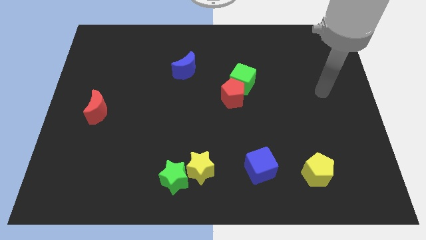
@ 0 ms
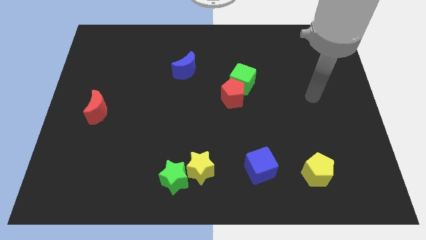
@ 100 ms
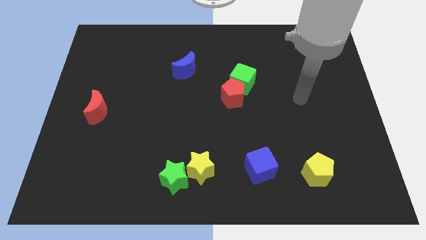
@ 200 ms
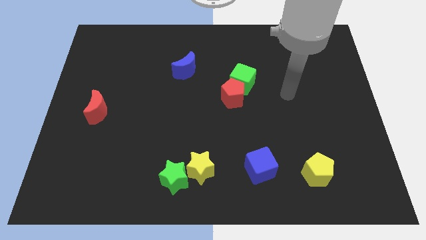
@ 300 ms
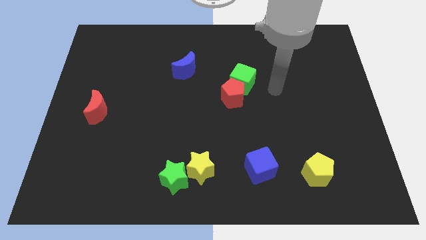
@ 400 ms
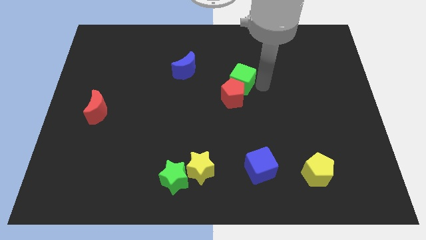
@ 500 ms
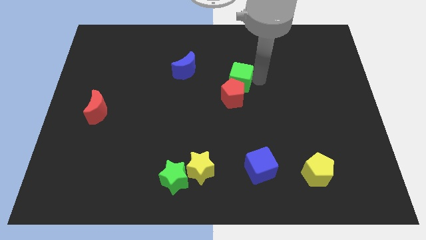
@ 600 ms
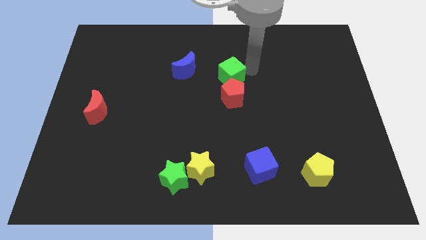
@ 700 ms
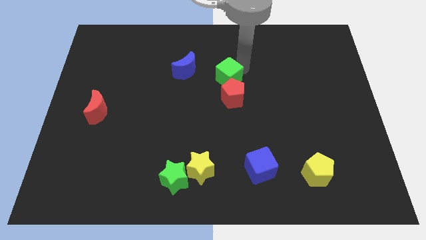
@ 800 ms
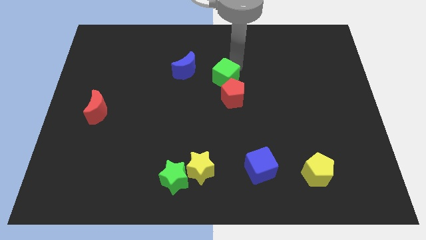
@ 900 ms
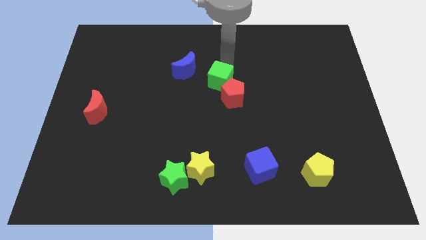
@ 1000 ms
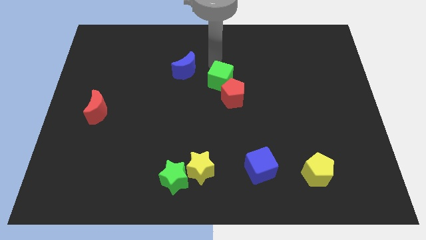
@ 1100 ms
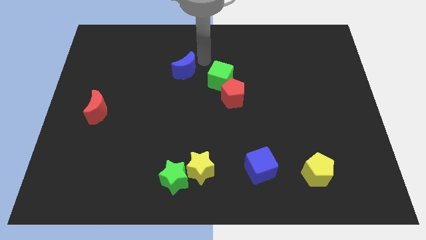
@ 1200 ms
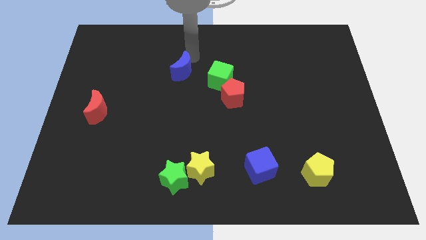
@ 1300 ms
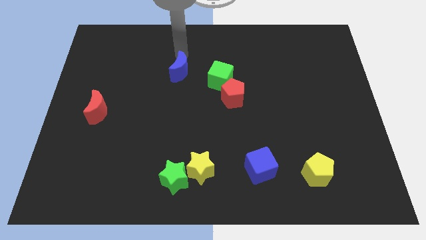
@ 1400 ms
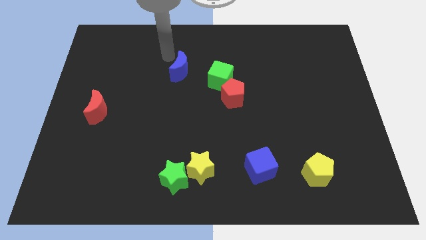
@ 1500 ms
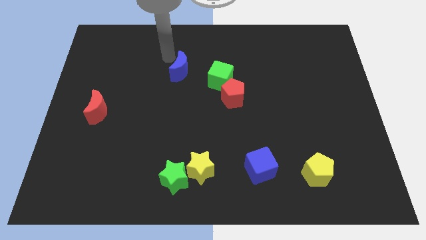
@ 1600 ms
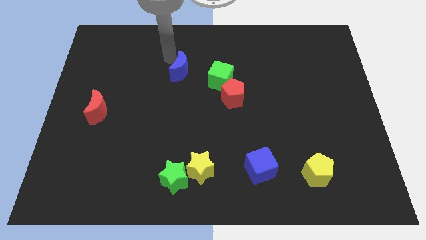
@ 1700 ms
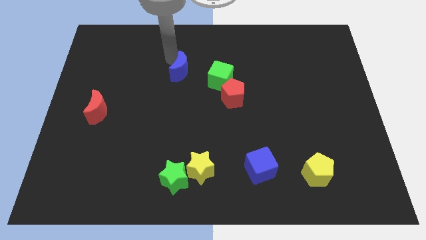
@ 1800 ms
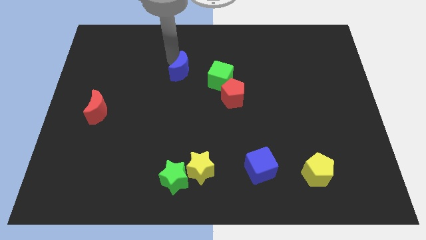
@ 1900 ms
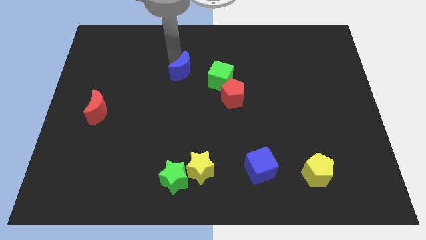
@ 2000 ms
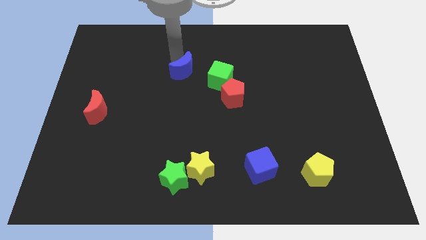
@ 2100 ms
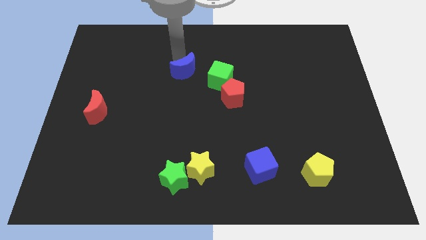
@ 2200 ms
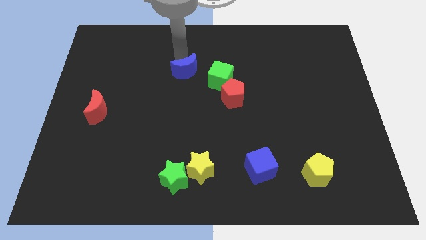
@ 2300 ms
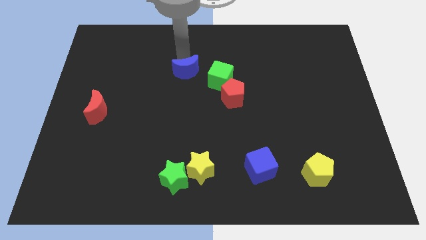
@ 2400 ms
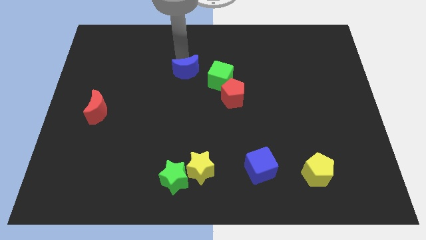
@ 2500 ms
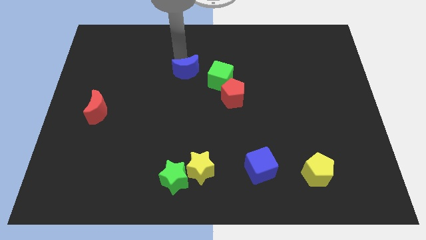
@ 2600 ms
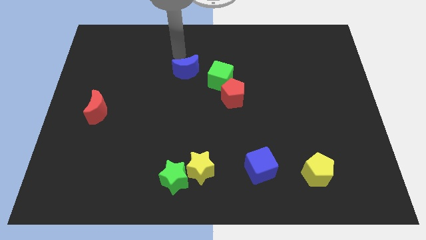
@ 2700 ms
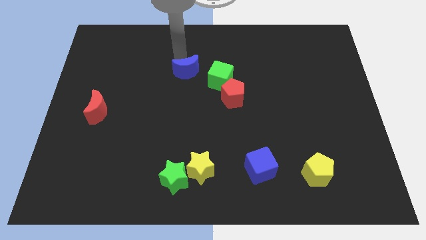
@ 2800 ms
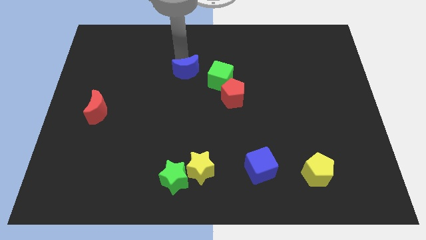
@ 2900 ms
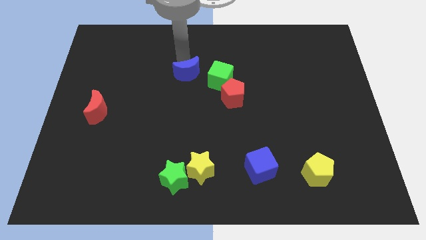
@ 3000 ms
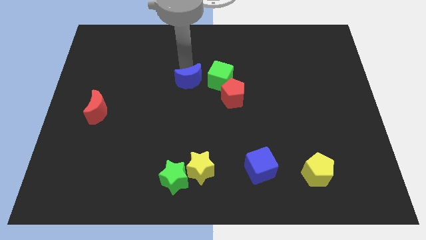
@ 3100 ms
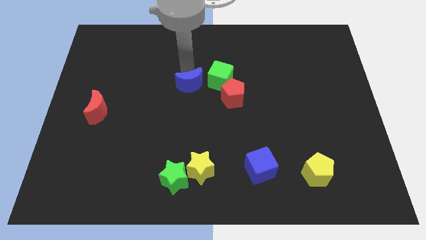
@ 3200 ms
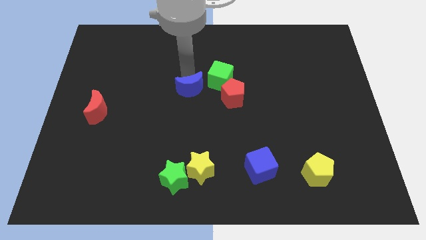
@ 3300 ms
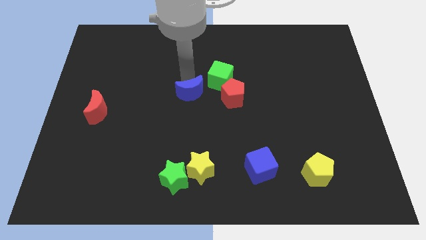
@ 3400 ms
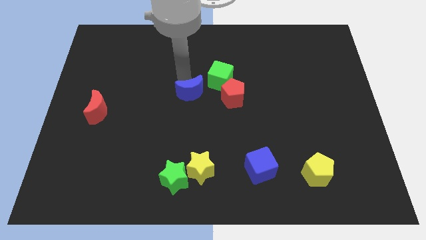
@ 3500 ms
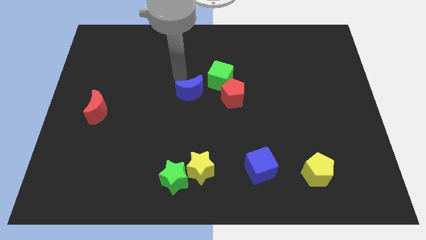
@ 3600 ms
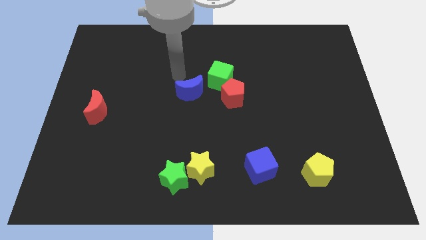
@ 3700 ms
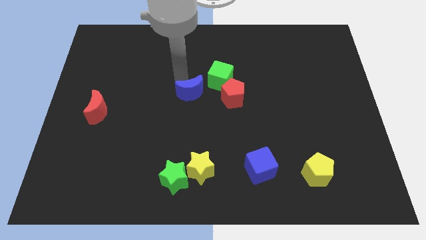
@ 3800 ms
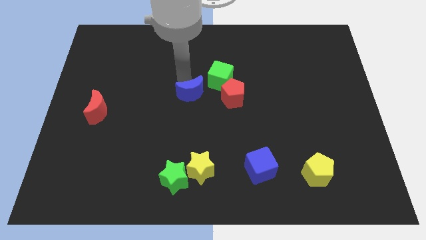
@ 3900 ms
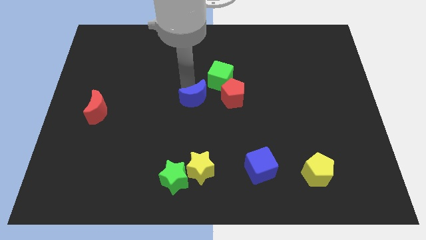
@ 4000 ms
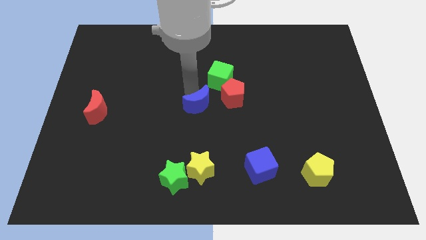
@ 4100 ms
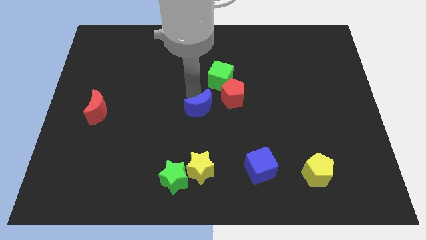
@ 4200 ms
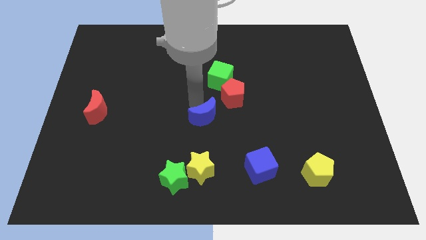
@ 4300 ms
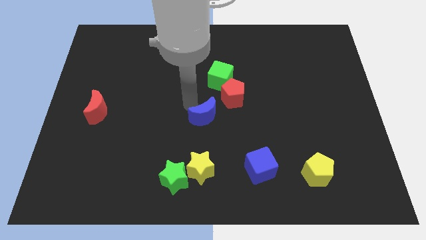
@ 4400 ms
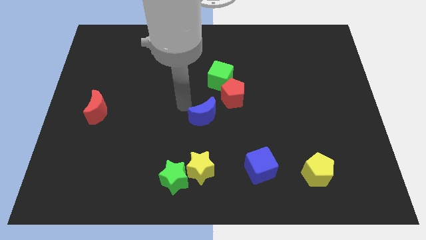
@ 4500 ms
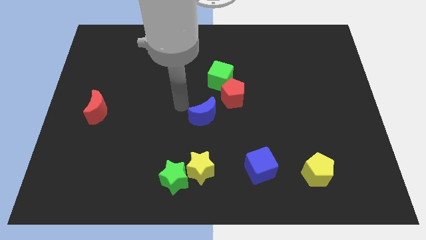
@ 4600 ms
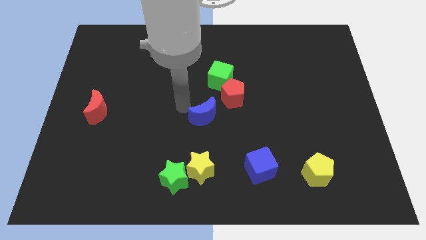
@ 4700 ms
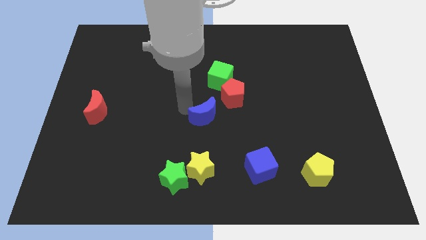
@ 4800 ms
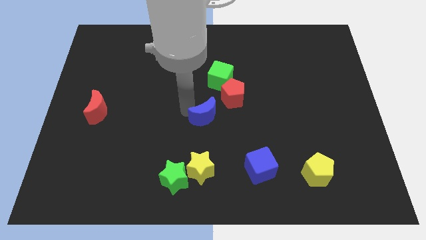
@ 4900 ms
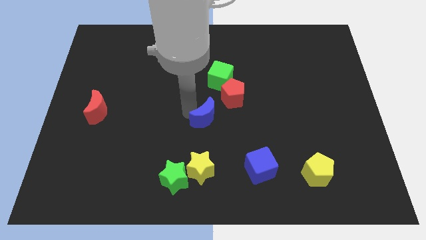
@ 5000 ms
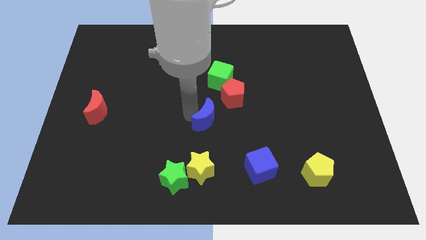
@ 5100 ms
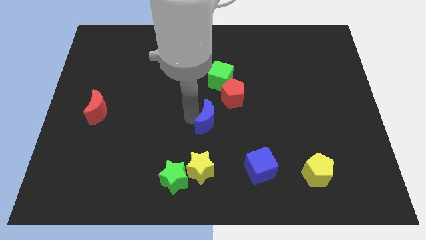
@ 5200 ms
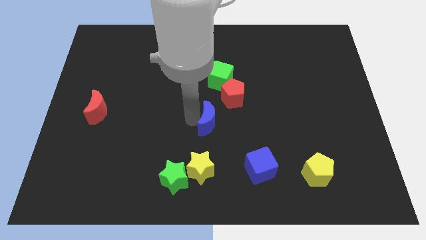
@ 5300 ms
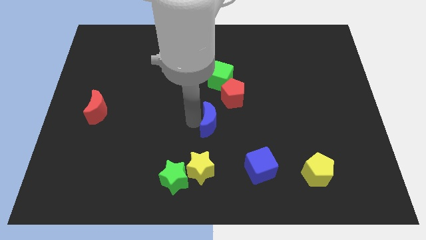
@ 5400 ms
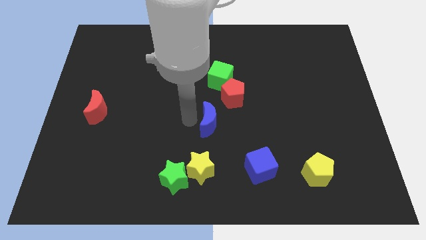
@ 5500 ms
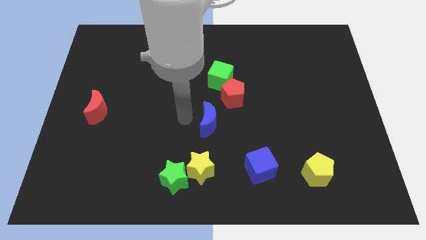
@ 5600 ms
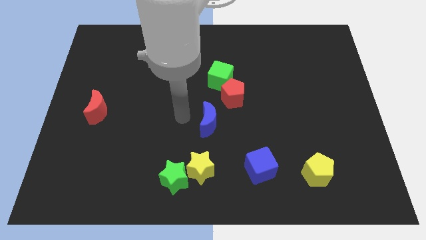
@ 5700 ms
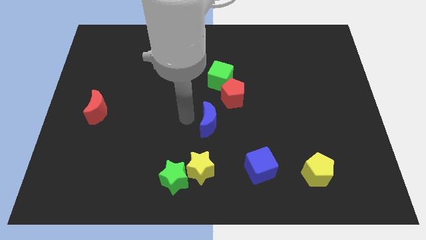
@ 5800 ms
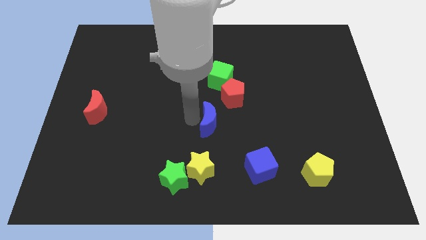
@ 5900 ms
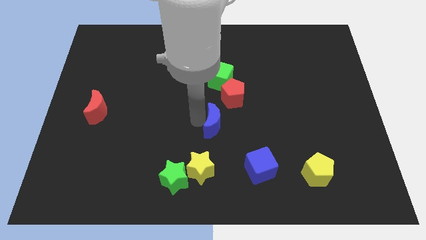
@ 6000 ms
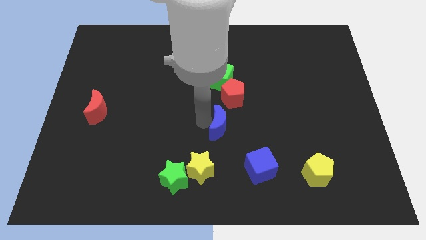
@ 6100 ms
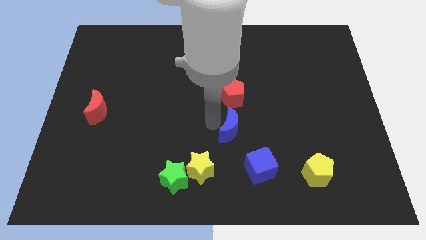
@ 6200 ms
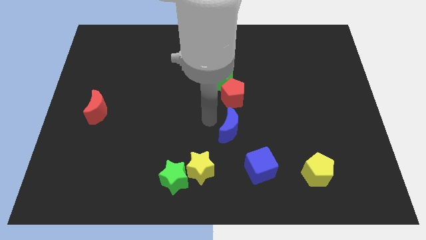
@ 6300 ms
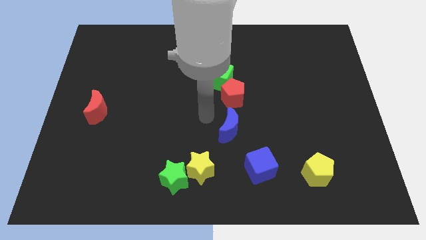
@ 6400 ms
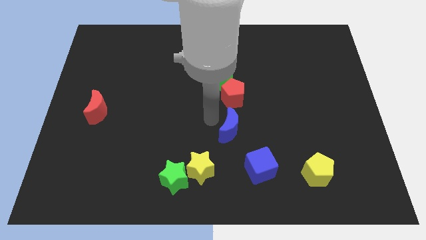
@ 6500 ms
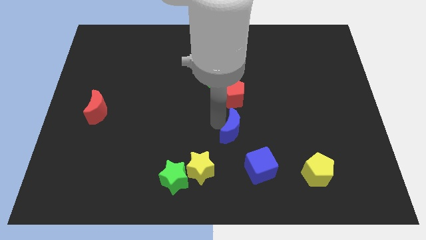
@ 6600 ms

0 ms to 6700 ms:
move the blue moon downwards and to the right

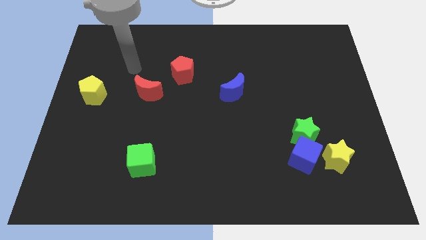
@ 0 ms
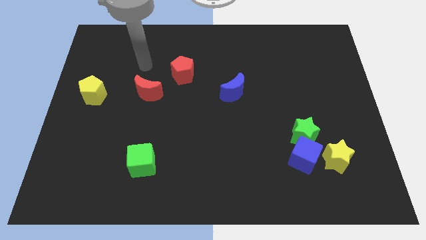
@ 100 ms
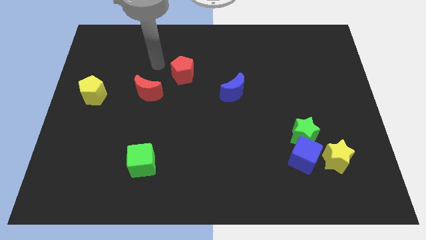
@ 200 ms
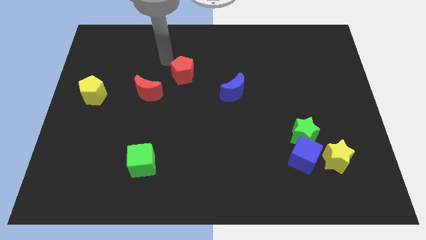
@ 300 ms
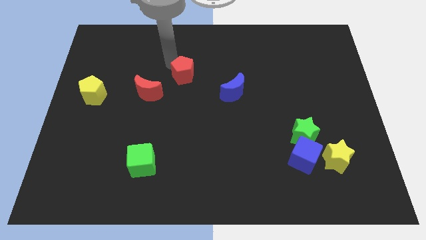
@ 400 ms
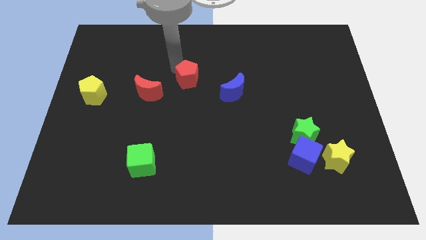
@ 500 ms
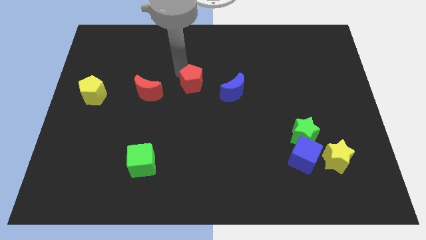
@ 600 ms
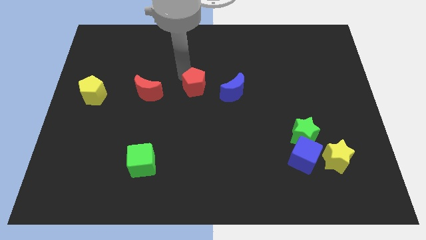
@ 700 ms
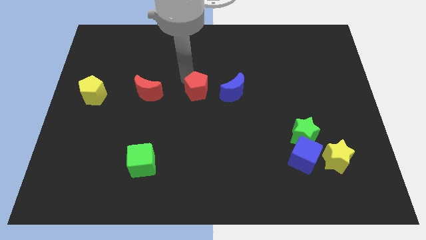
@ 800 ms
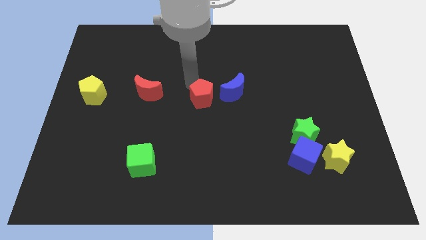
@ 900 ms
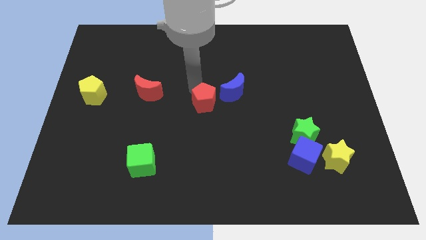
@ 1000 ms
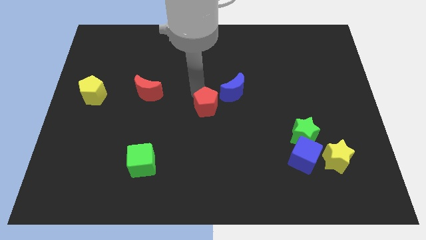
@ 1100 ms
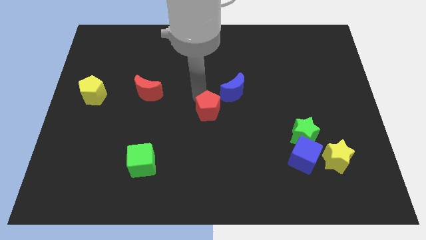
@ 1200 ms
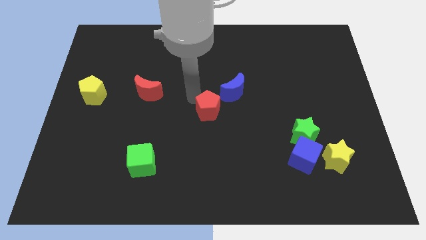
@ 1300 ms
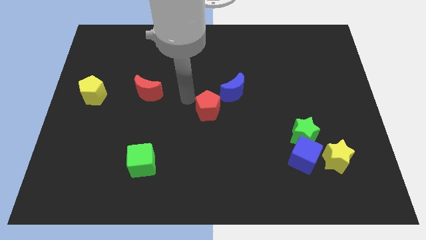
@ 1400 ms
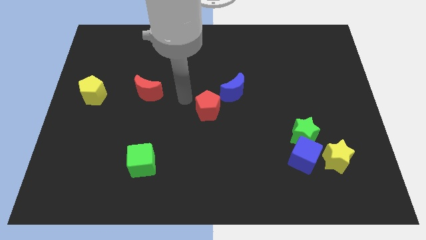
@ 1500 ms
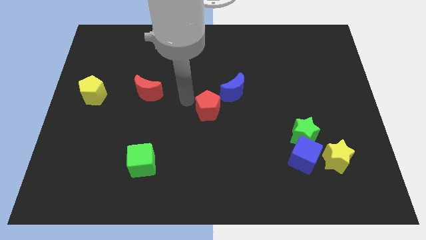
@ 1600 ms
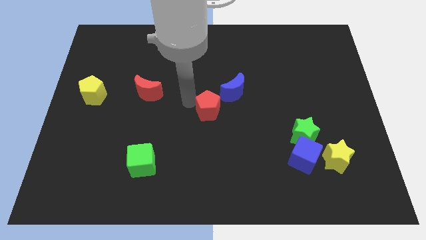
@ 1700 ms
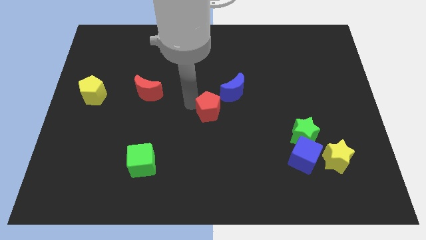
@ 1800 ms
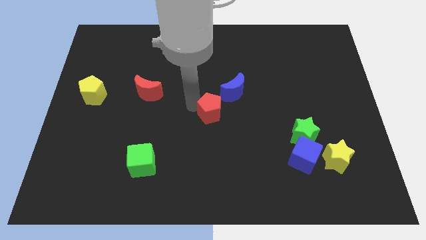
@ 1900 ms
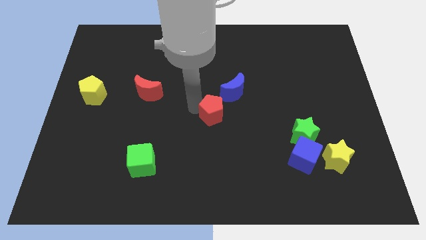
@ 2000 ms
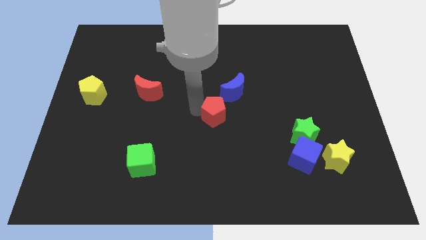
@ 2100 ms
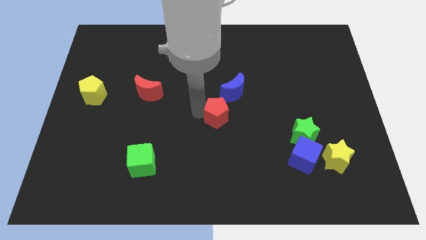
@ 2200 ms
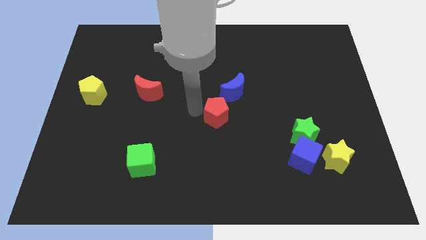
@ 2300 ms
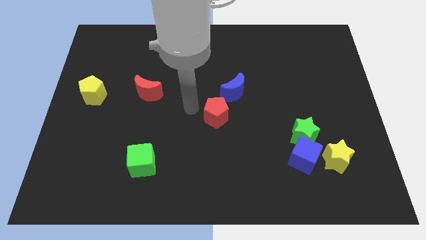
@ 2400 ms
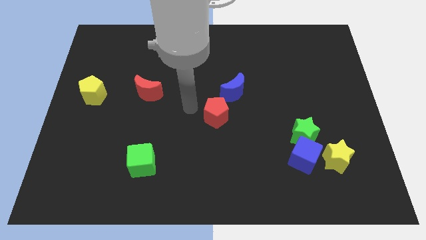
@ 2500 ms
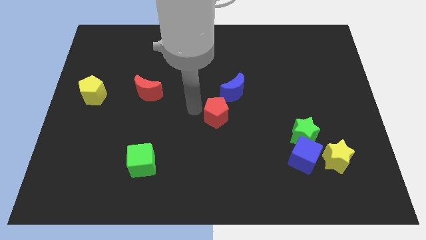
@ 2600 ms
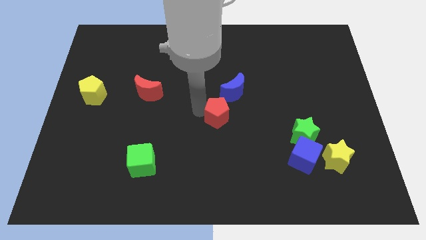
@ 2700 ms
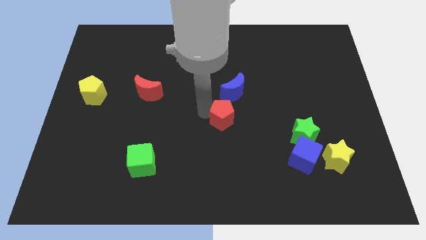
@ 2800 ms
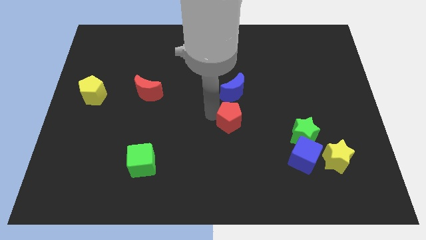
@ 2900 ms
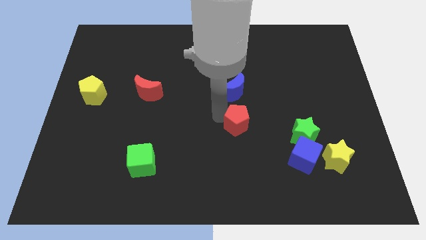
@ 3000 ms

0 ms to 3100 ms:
move the red pentagon diagonally downwards and to the right
